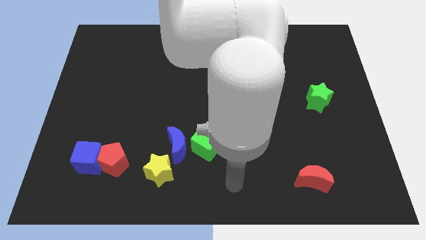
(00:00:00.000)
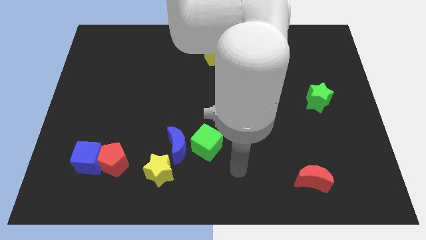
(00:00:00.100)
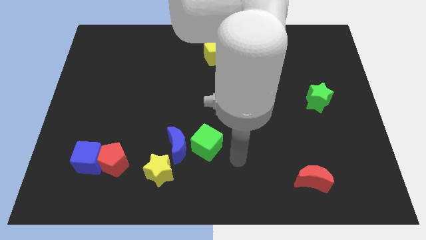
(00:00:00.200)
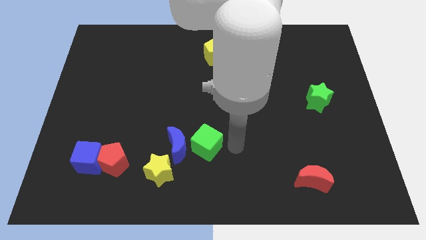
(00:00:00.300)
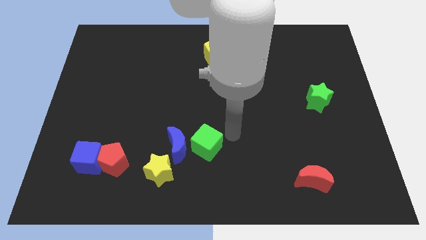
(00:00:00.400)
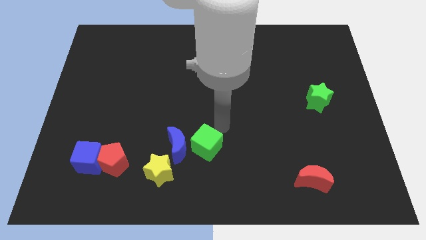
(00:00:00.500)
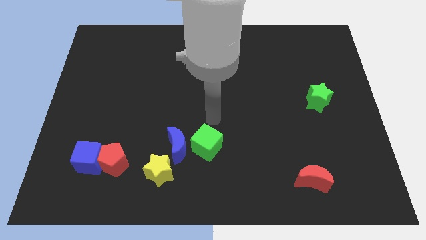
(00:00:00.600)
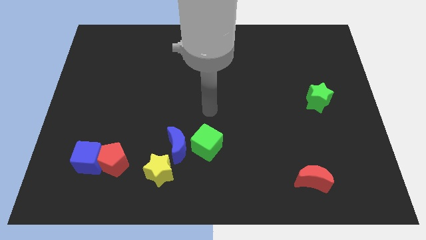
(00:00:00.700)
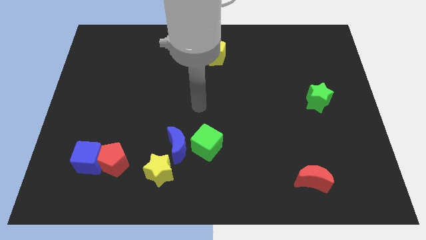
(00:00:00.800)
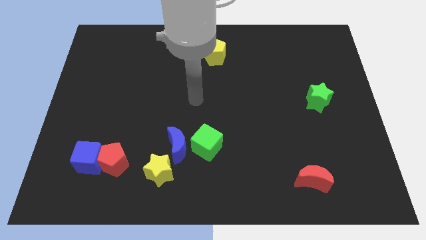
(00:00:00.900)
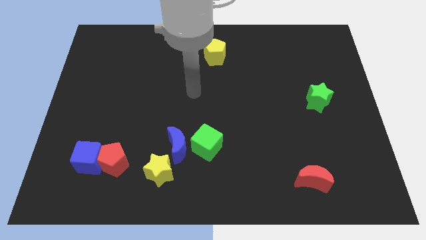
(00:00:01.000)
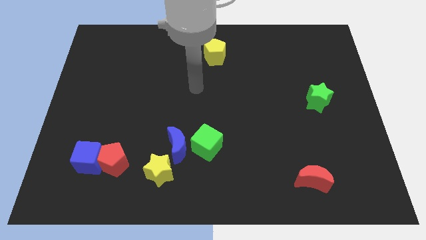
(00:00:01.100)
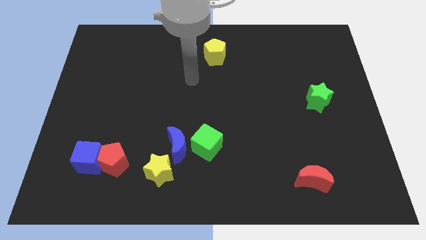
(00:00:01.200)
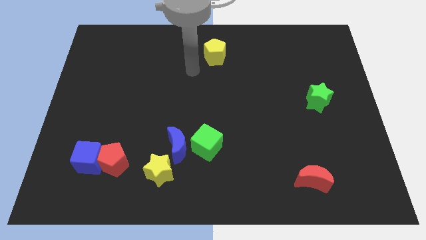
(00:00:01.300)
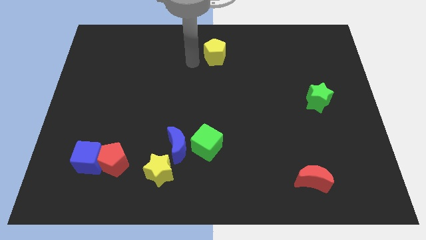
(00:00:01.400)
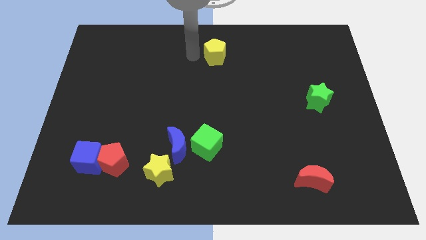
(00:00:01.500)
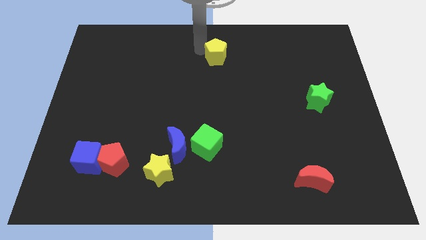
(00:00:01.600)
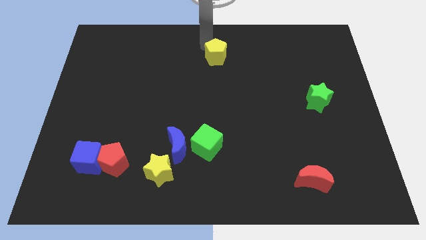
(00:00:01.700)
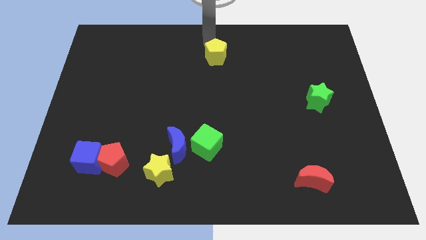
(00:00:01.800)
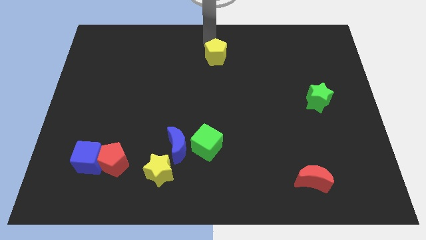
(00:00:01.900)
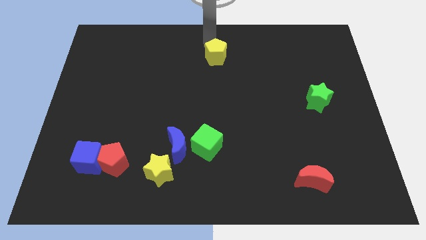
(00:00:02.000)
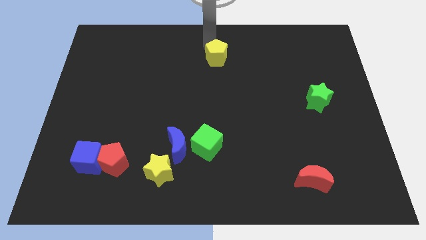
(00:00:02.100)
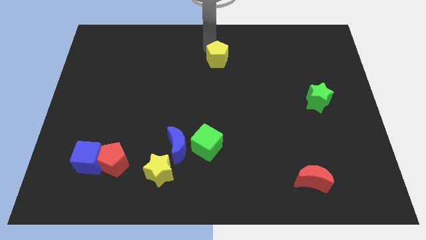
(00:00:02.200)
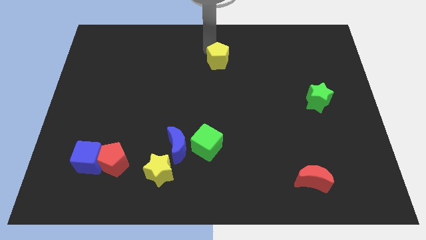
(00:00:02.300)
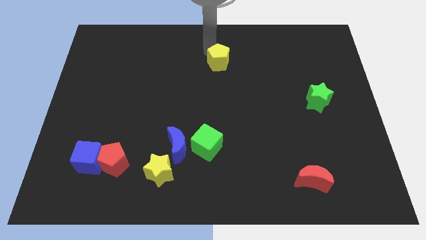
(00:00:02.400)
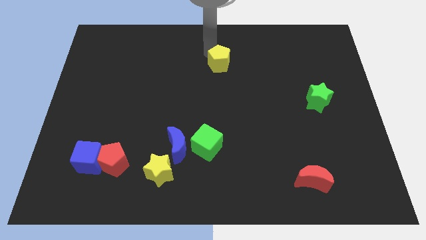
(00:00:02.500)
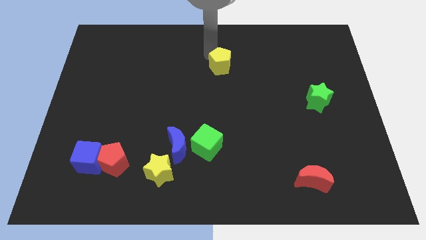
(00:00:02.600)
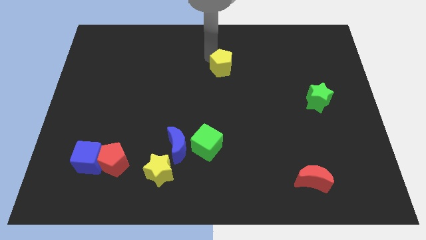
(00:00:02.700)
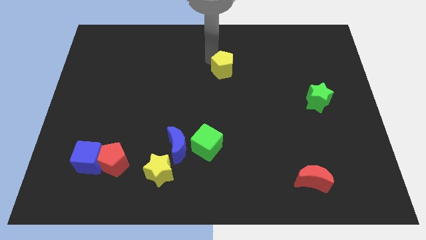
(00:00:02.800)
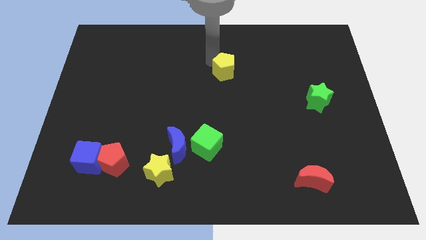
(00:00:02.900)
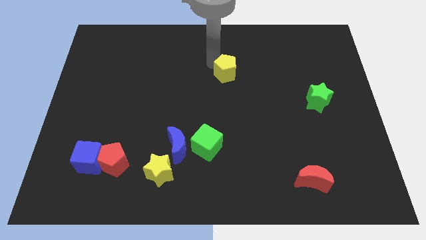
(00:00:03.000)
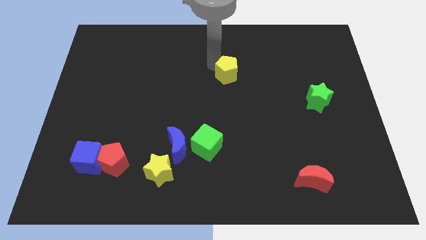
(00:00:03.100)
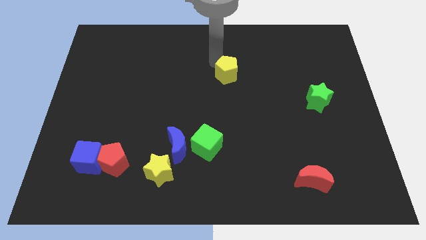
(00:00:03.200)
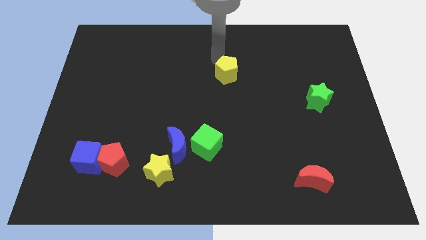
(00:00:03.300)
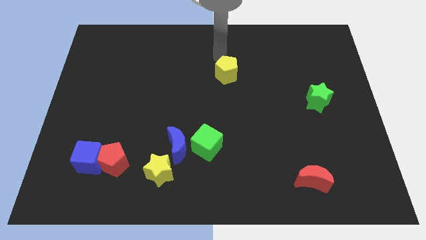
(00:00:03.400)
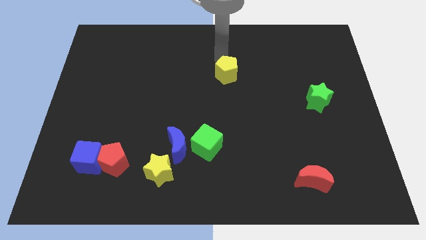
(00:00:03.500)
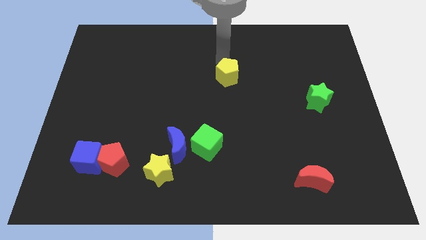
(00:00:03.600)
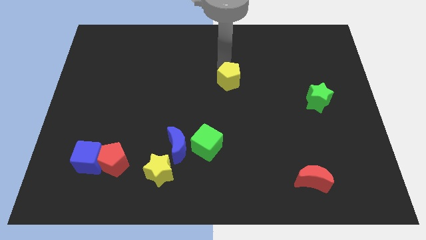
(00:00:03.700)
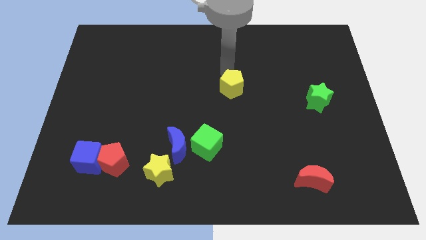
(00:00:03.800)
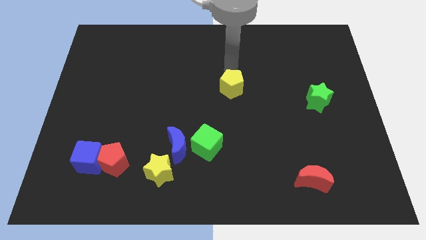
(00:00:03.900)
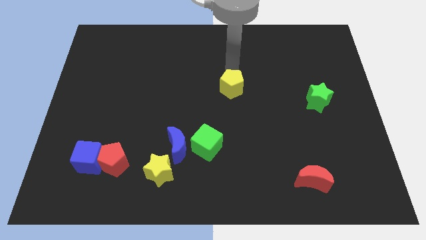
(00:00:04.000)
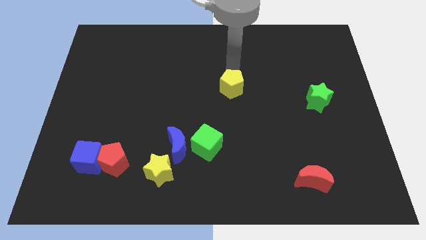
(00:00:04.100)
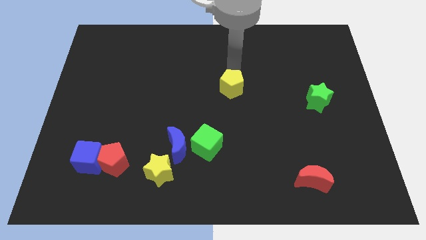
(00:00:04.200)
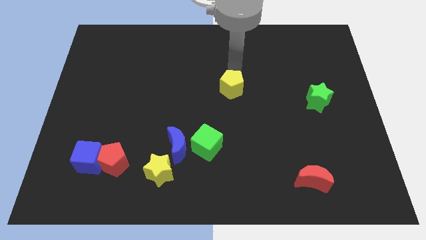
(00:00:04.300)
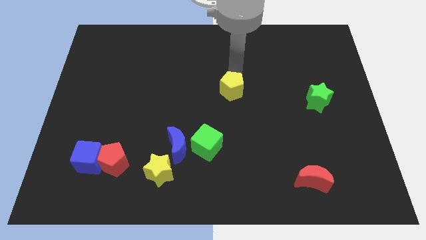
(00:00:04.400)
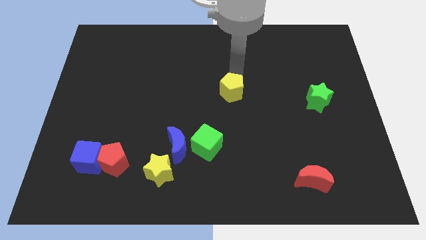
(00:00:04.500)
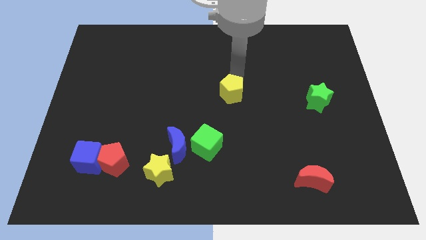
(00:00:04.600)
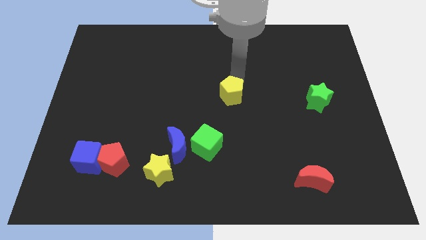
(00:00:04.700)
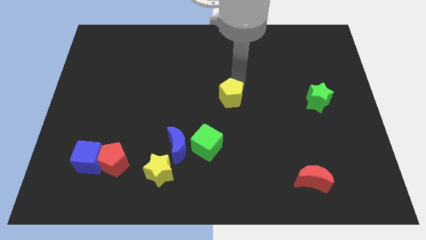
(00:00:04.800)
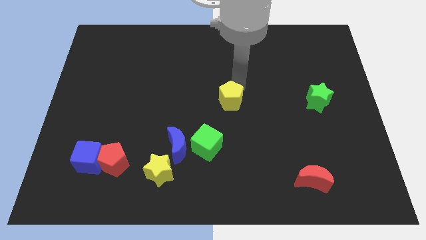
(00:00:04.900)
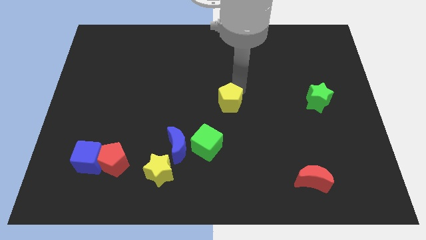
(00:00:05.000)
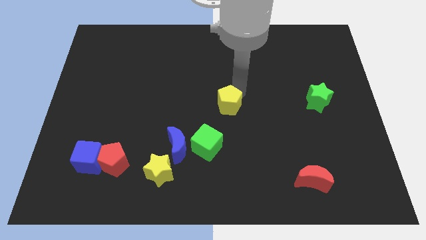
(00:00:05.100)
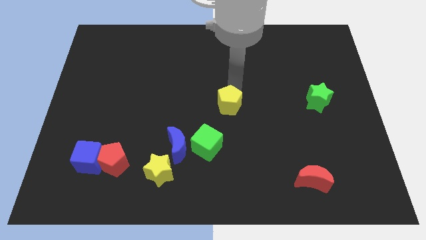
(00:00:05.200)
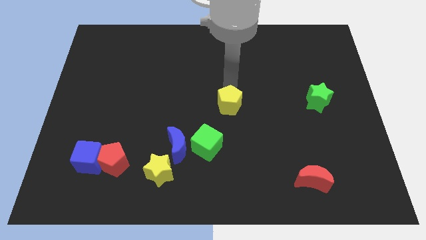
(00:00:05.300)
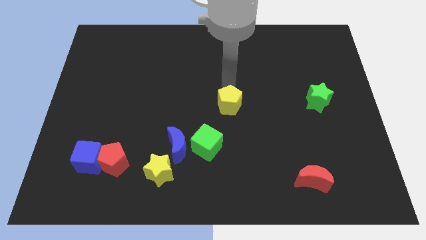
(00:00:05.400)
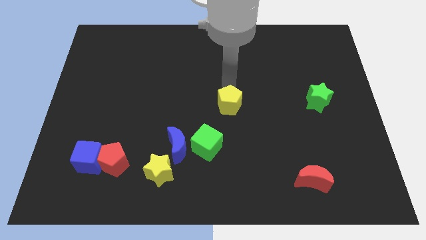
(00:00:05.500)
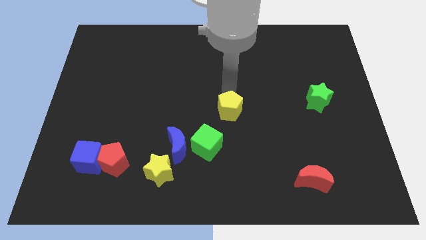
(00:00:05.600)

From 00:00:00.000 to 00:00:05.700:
push the yellow pentagon to the top right of the green cube

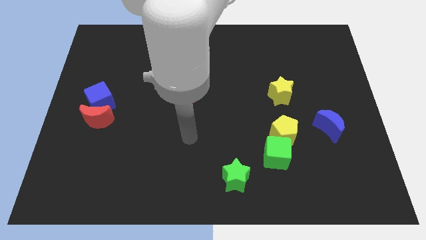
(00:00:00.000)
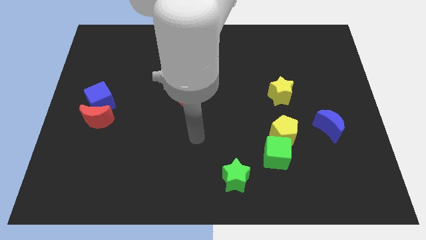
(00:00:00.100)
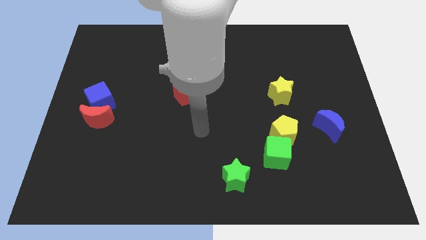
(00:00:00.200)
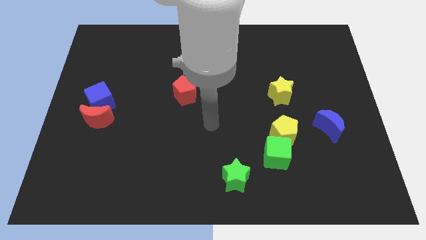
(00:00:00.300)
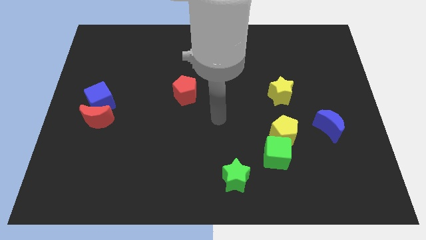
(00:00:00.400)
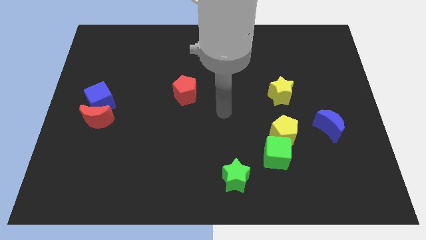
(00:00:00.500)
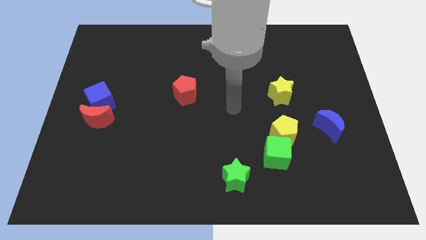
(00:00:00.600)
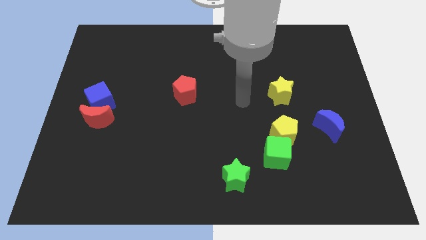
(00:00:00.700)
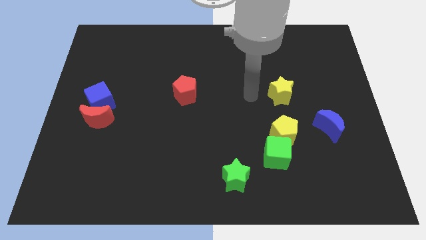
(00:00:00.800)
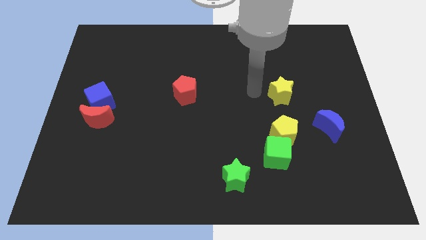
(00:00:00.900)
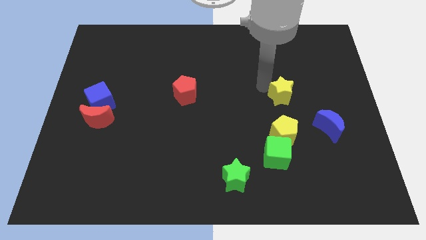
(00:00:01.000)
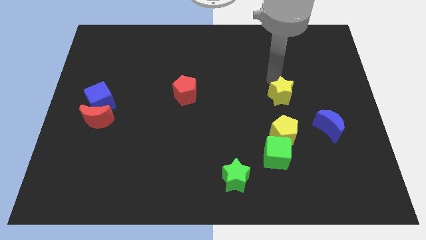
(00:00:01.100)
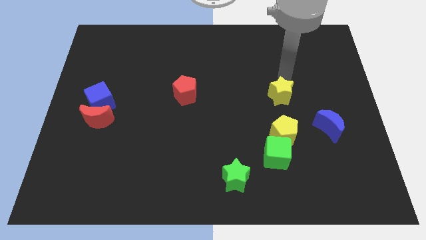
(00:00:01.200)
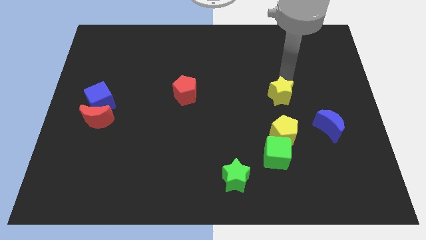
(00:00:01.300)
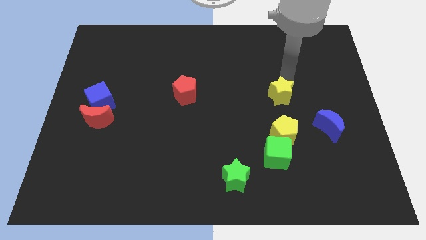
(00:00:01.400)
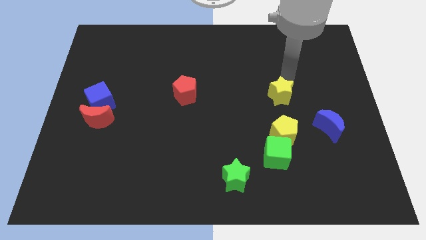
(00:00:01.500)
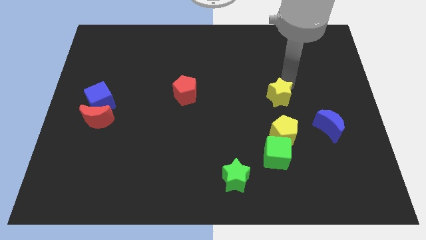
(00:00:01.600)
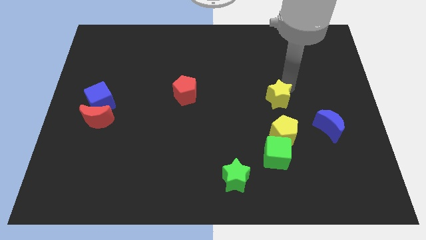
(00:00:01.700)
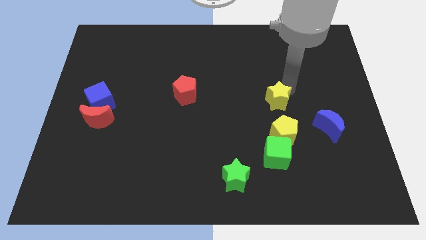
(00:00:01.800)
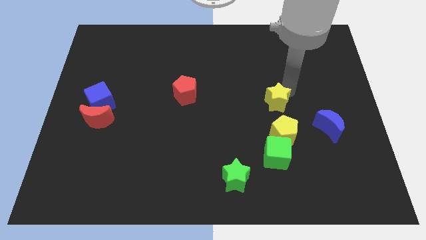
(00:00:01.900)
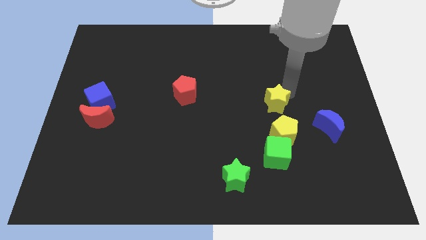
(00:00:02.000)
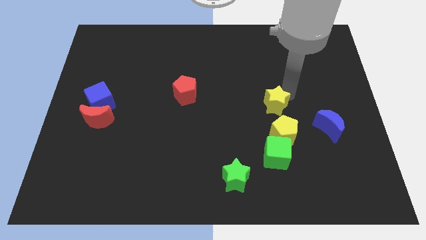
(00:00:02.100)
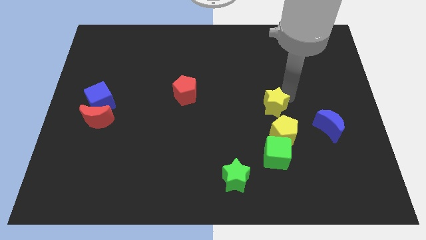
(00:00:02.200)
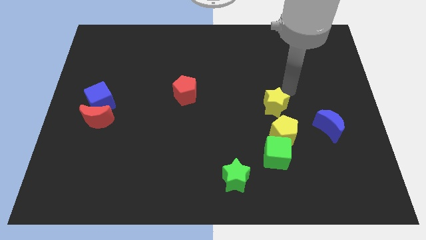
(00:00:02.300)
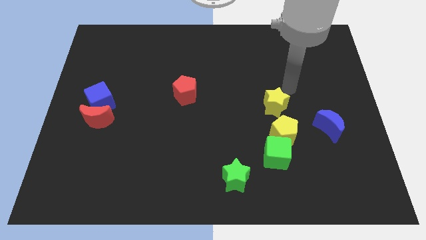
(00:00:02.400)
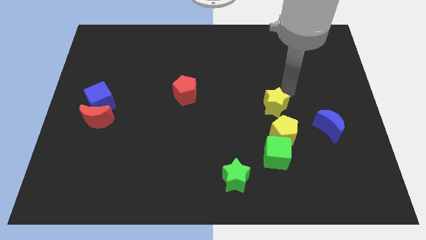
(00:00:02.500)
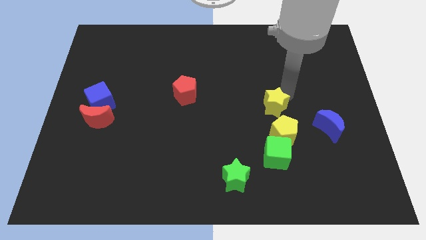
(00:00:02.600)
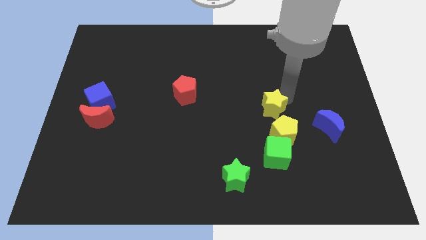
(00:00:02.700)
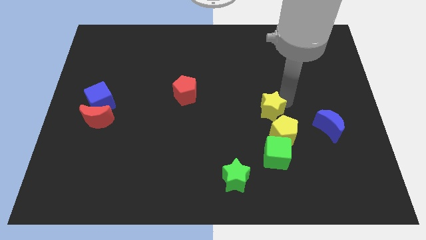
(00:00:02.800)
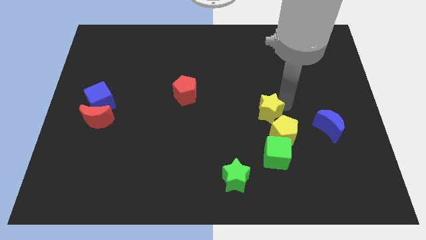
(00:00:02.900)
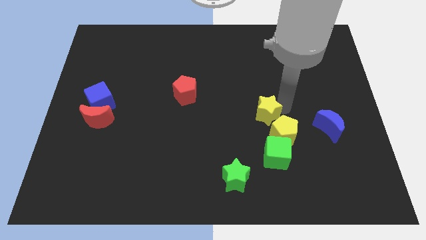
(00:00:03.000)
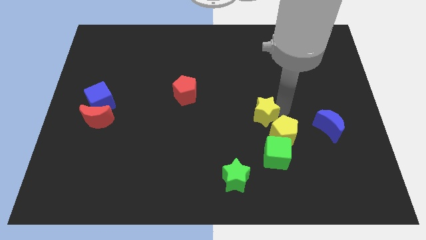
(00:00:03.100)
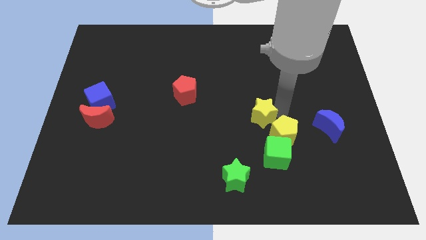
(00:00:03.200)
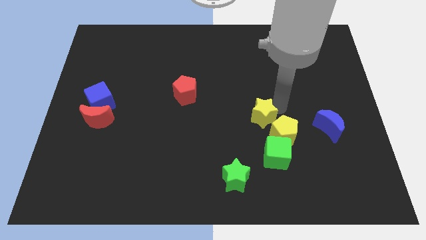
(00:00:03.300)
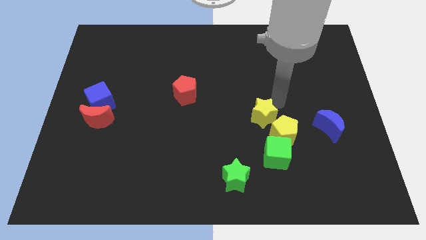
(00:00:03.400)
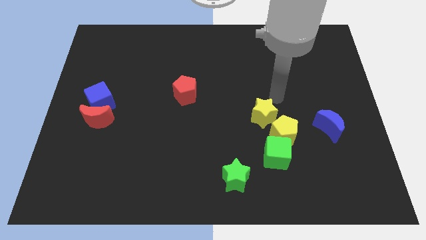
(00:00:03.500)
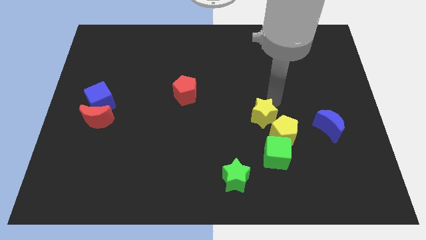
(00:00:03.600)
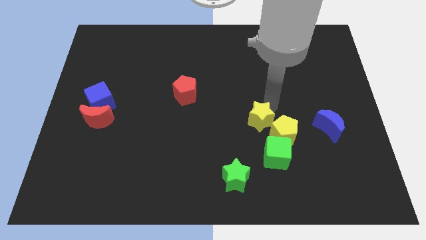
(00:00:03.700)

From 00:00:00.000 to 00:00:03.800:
slide the yellow star diagonally up and to the left of the green cube
